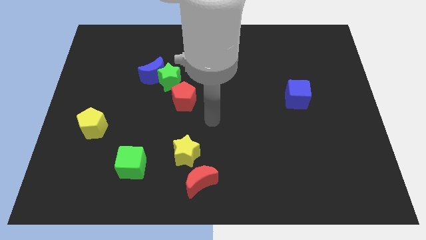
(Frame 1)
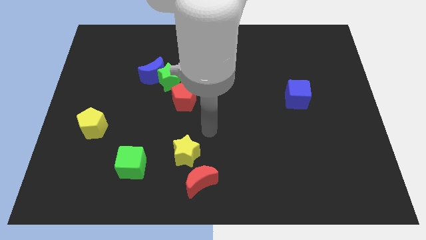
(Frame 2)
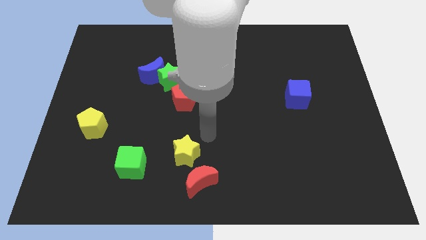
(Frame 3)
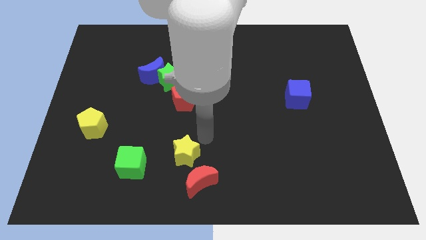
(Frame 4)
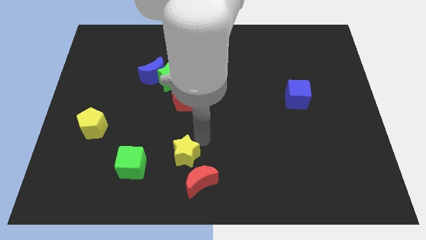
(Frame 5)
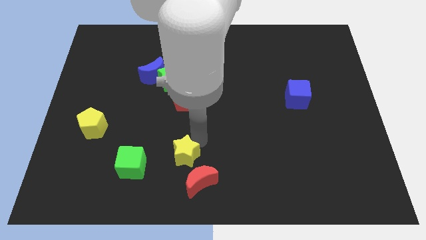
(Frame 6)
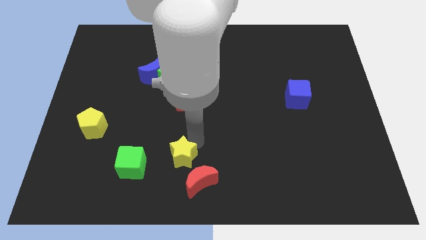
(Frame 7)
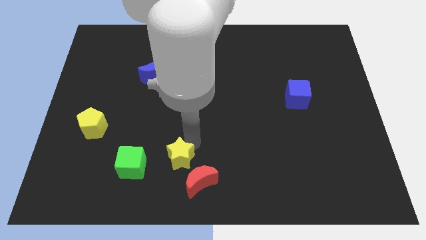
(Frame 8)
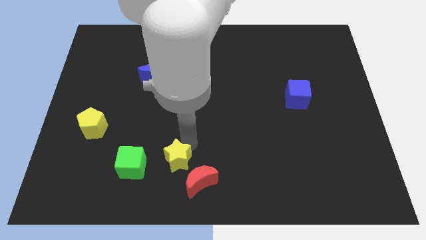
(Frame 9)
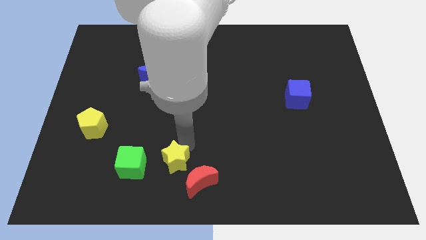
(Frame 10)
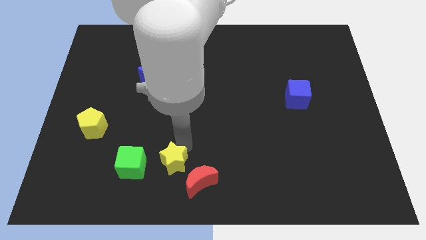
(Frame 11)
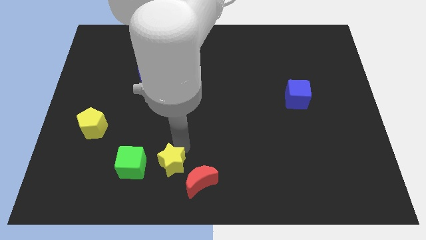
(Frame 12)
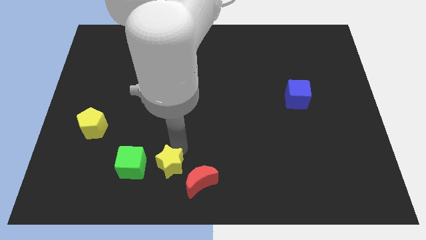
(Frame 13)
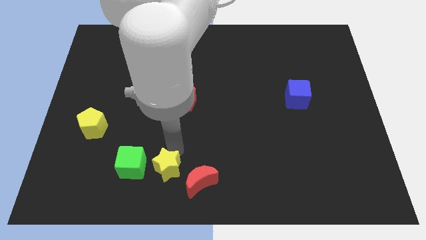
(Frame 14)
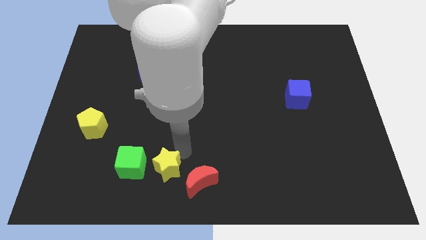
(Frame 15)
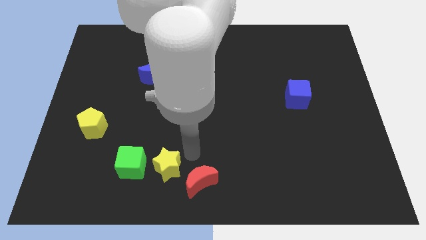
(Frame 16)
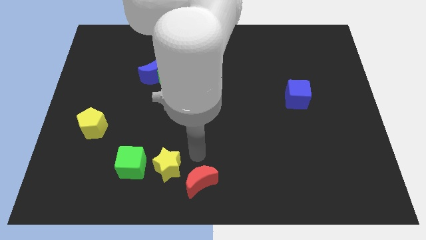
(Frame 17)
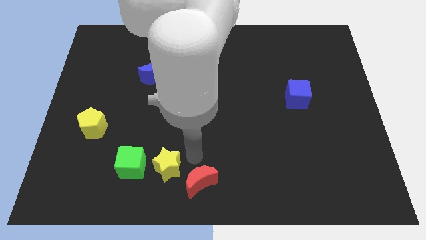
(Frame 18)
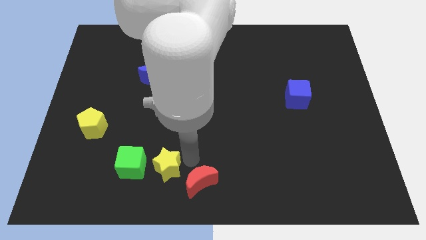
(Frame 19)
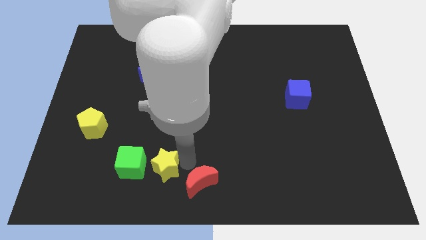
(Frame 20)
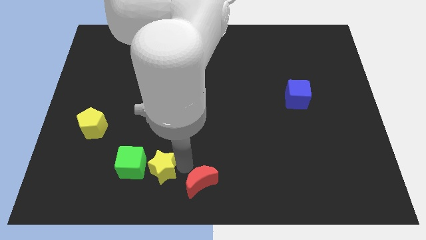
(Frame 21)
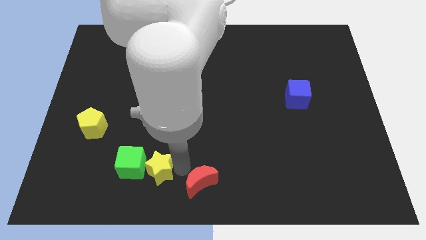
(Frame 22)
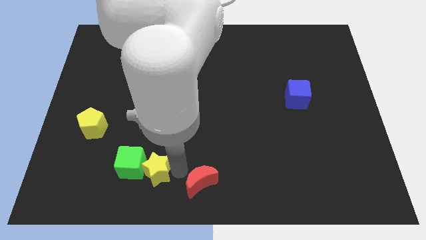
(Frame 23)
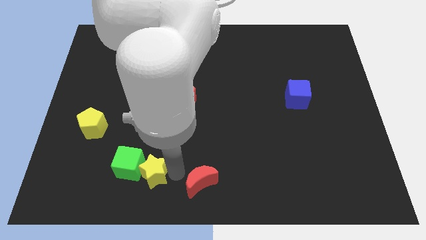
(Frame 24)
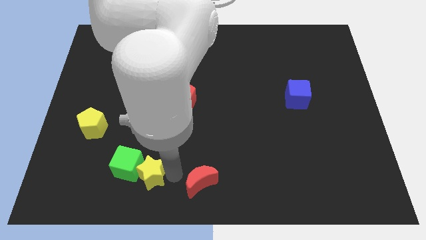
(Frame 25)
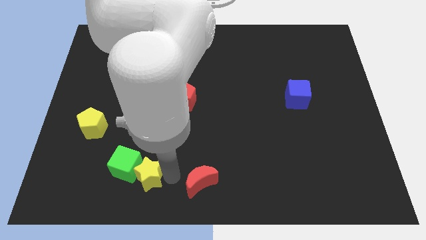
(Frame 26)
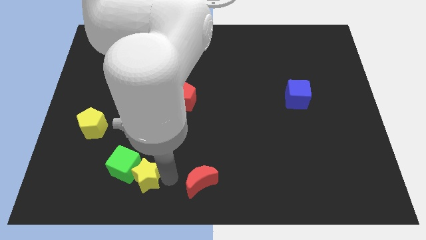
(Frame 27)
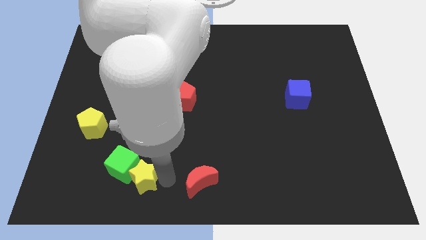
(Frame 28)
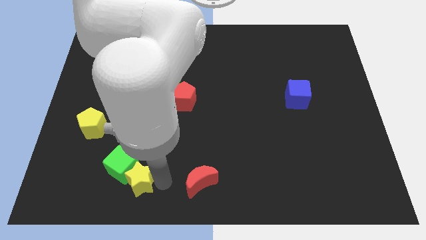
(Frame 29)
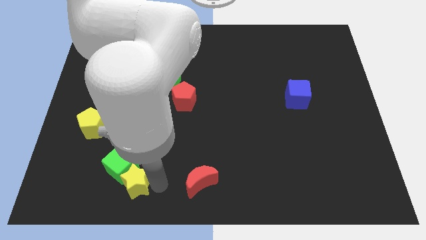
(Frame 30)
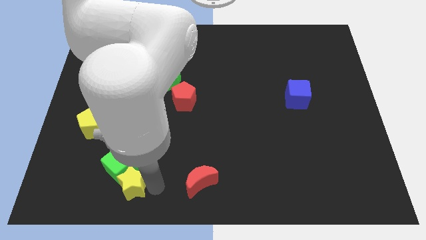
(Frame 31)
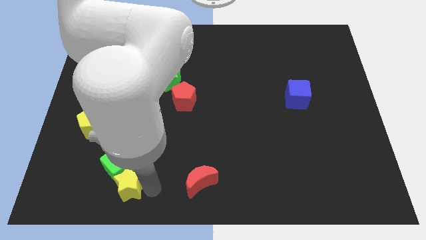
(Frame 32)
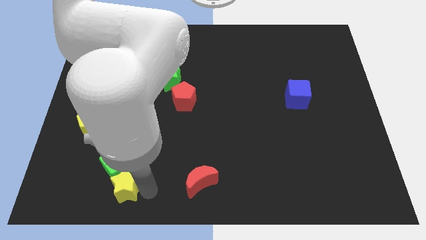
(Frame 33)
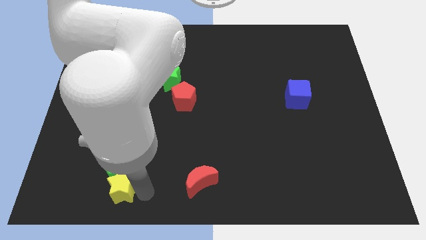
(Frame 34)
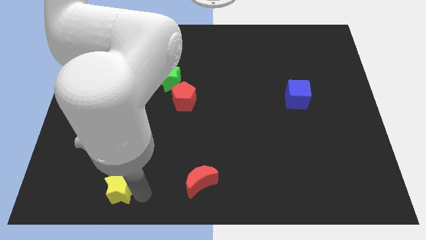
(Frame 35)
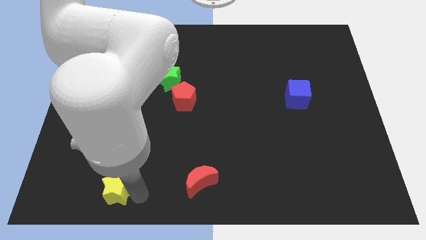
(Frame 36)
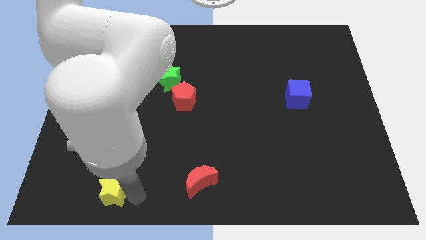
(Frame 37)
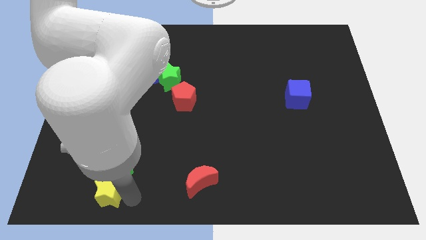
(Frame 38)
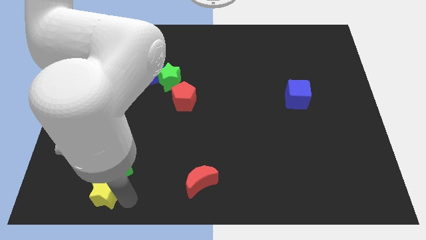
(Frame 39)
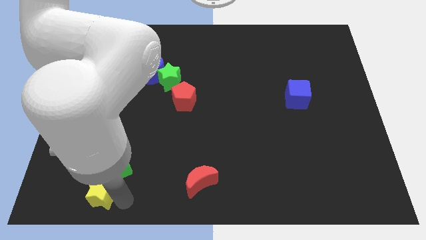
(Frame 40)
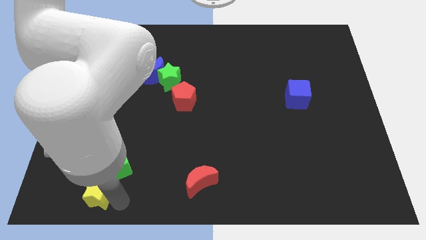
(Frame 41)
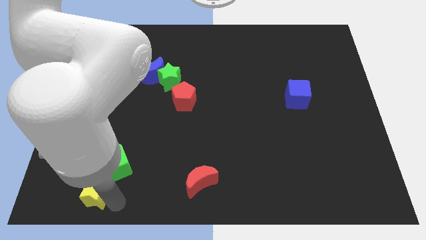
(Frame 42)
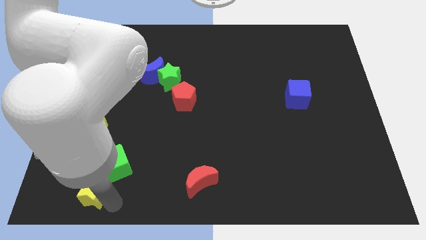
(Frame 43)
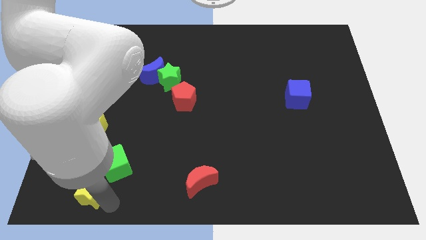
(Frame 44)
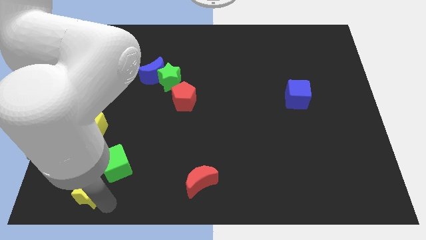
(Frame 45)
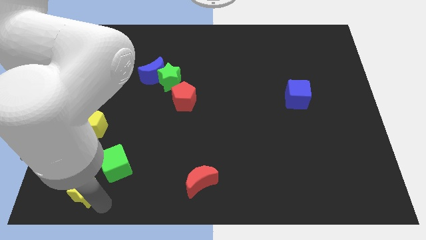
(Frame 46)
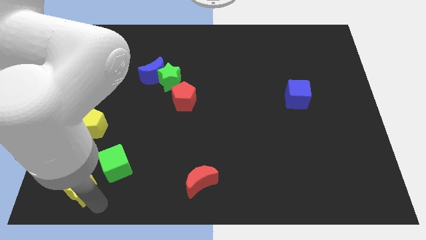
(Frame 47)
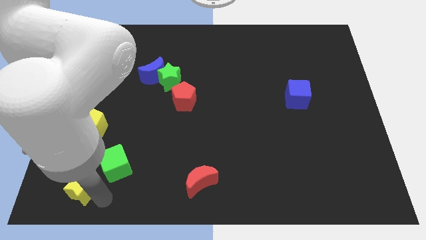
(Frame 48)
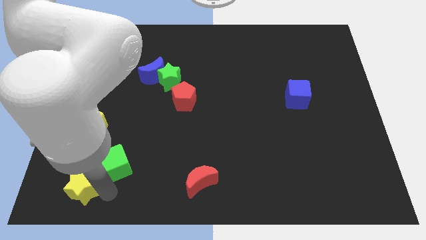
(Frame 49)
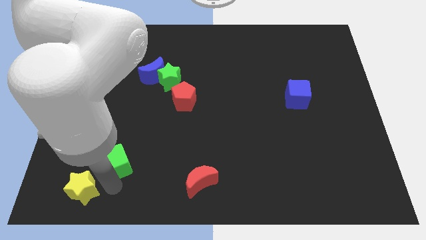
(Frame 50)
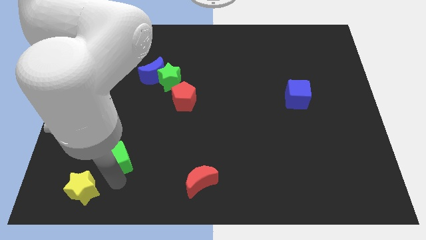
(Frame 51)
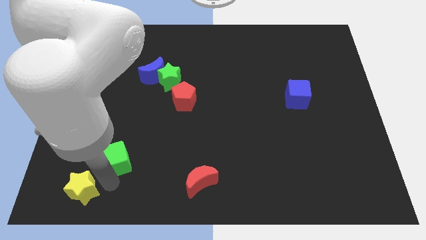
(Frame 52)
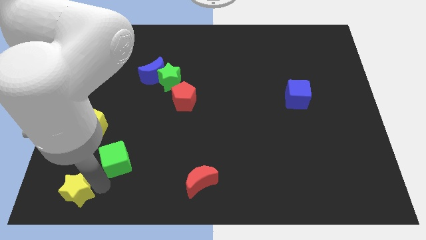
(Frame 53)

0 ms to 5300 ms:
push the yellow star to the bottom left of the board

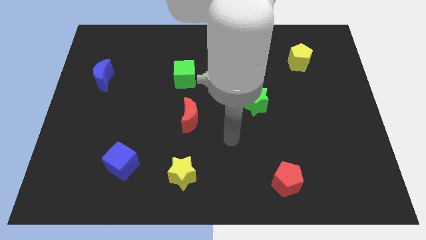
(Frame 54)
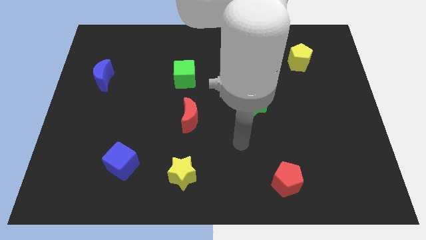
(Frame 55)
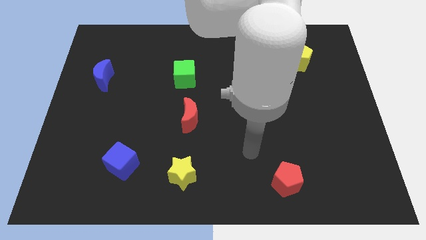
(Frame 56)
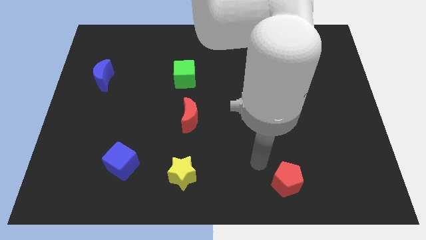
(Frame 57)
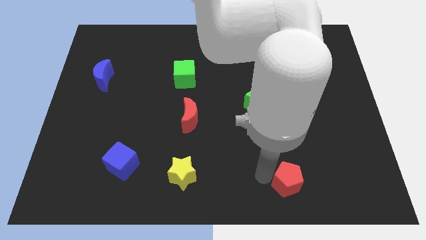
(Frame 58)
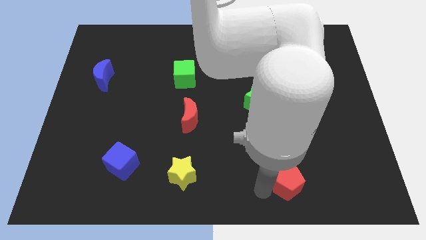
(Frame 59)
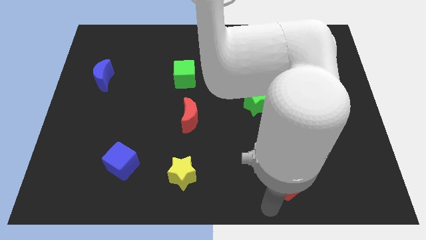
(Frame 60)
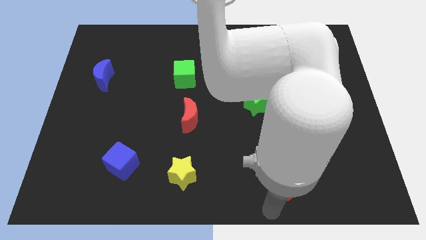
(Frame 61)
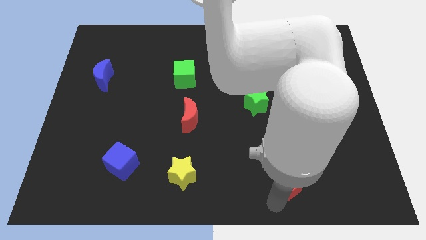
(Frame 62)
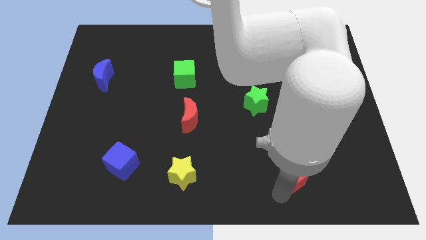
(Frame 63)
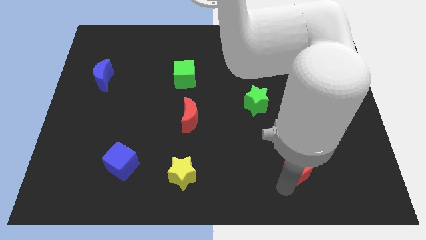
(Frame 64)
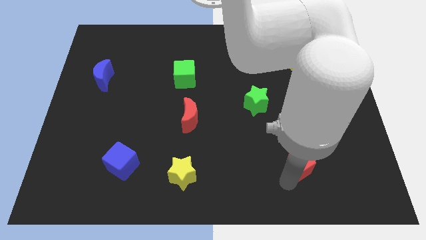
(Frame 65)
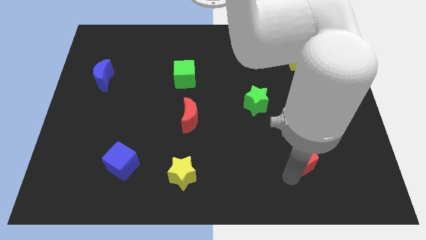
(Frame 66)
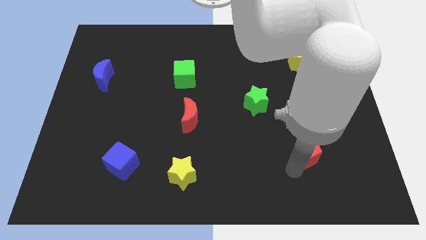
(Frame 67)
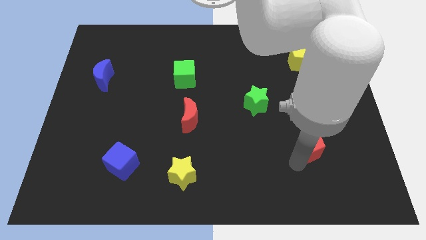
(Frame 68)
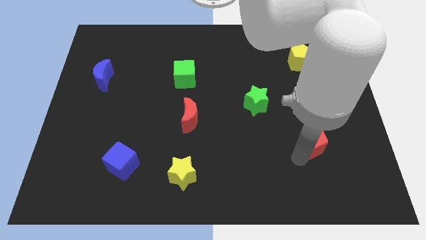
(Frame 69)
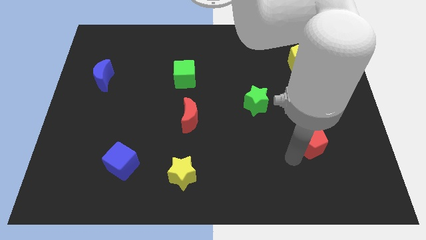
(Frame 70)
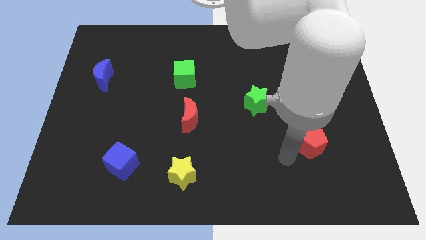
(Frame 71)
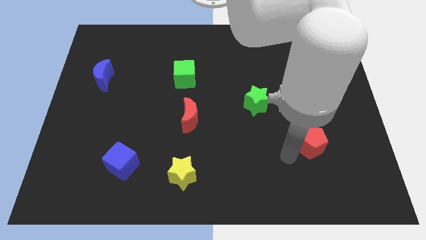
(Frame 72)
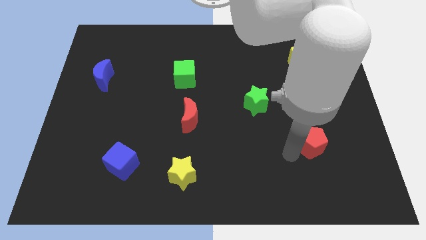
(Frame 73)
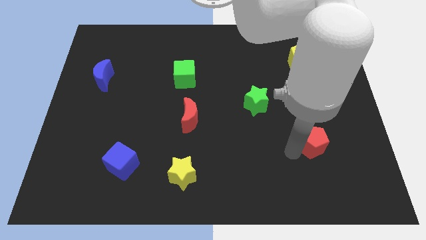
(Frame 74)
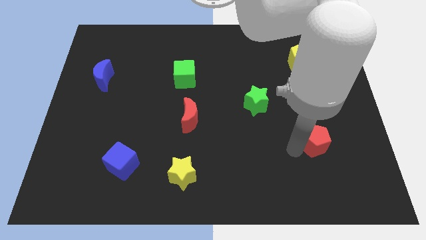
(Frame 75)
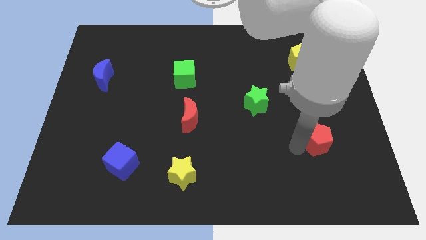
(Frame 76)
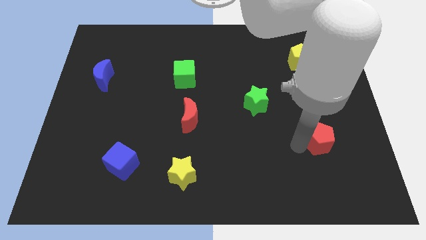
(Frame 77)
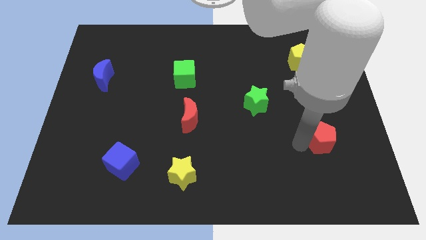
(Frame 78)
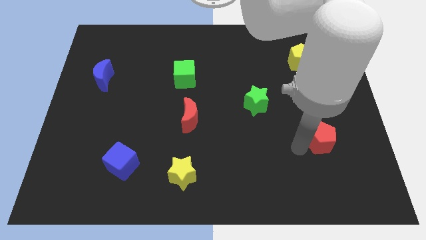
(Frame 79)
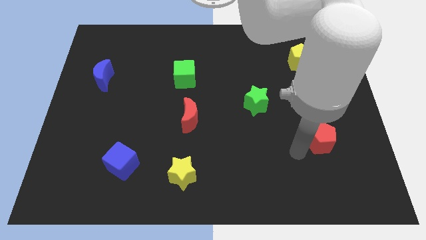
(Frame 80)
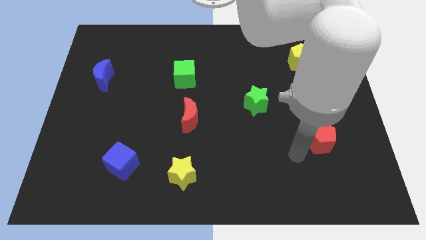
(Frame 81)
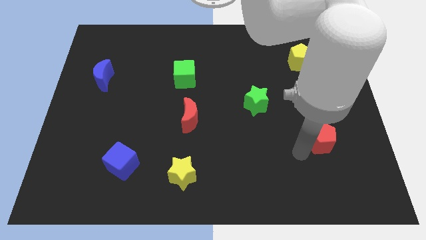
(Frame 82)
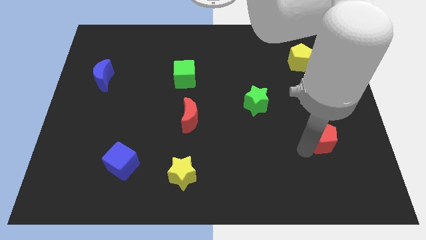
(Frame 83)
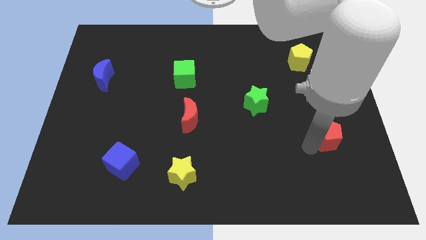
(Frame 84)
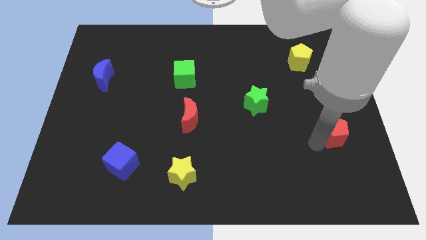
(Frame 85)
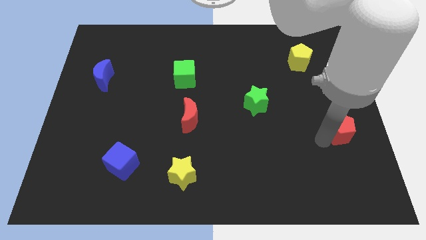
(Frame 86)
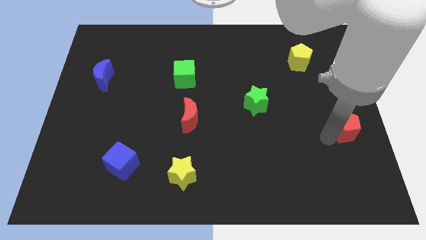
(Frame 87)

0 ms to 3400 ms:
push the red pentagon to the right side of the board
